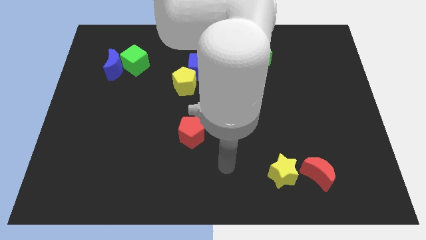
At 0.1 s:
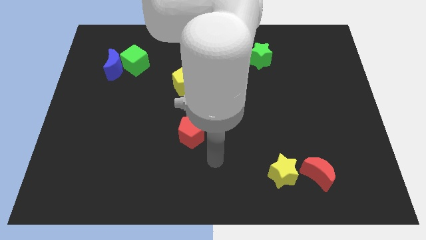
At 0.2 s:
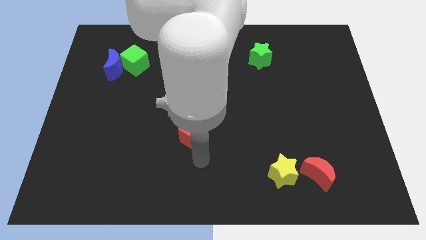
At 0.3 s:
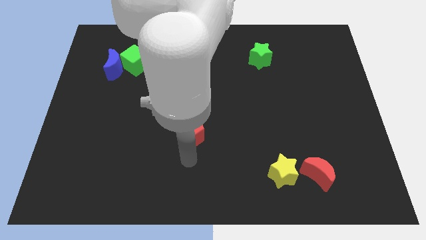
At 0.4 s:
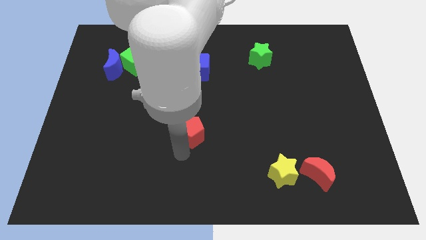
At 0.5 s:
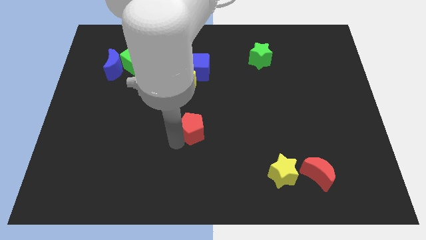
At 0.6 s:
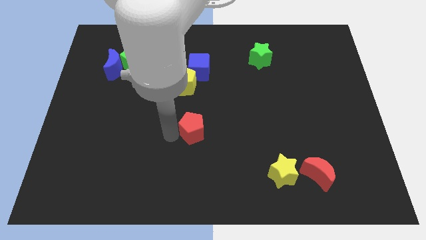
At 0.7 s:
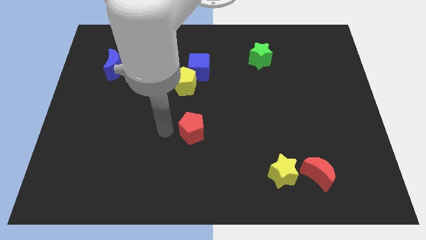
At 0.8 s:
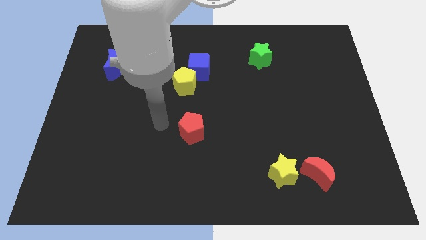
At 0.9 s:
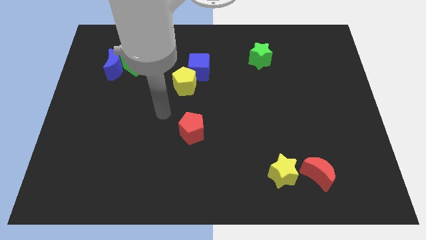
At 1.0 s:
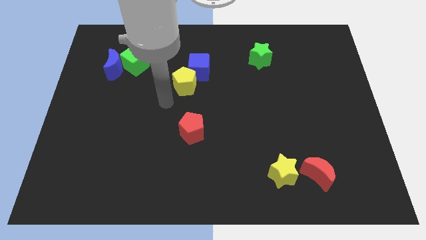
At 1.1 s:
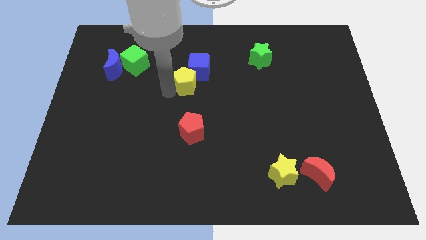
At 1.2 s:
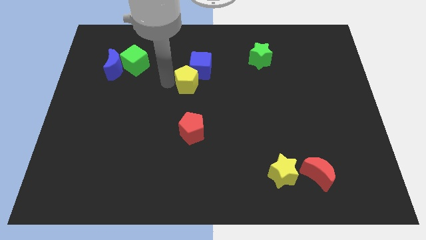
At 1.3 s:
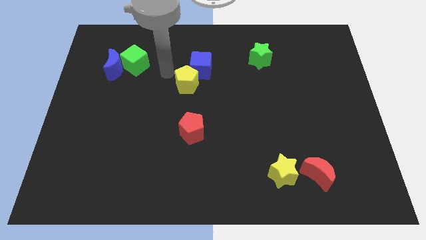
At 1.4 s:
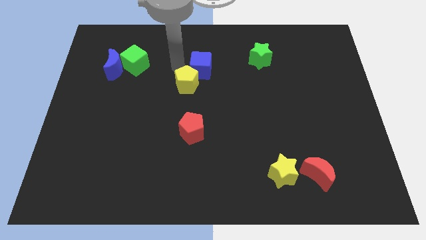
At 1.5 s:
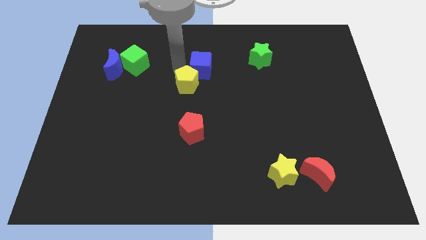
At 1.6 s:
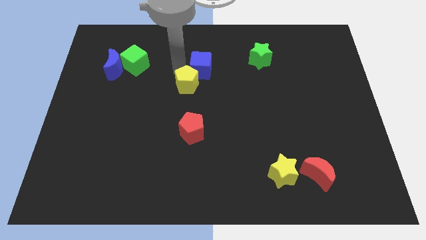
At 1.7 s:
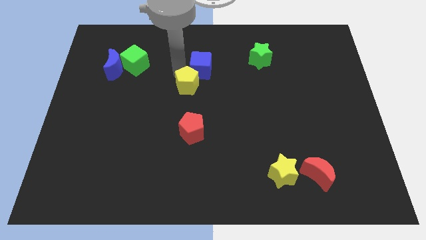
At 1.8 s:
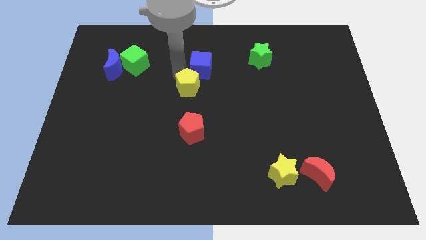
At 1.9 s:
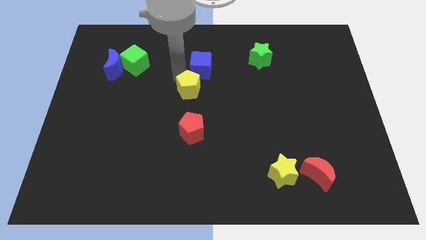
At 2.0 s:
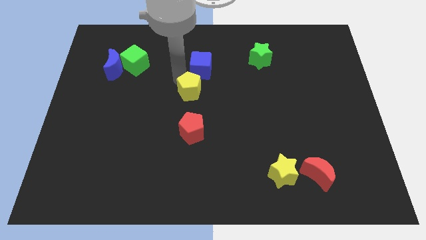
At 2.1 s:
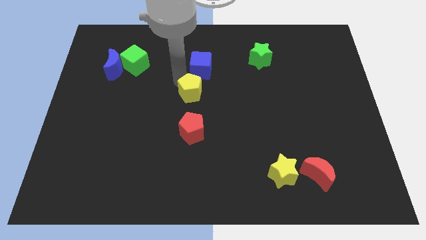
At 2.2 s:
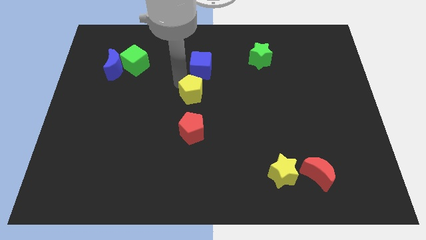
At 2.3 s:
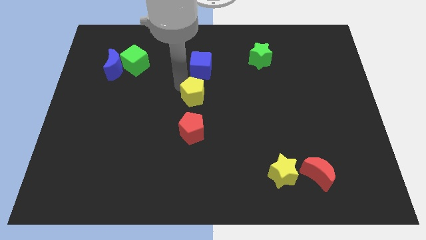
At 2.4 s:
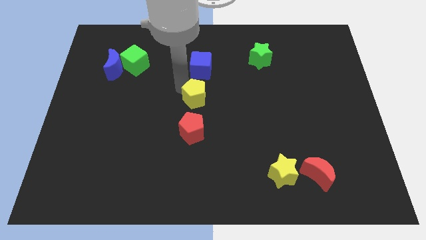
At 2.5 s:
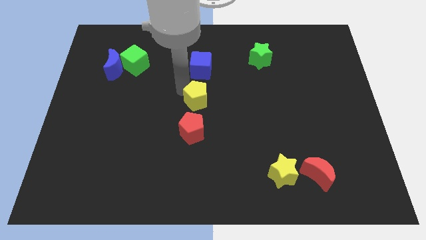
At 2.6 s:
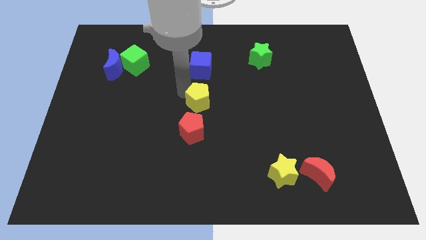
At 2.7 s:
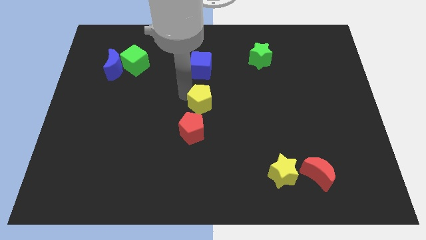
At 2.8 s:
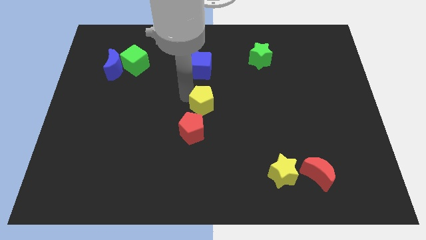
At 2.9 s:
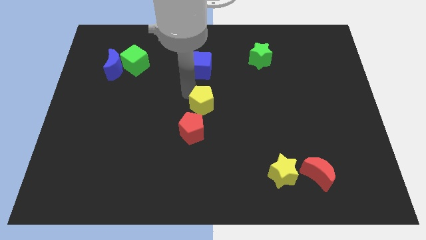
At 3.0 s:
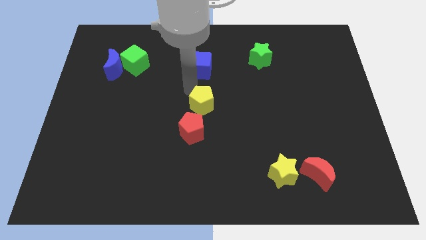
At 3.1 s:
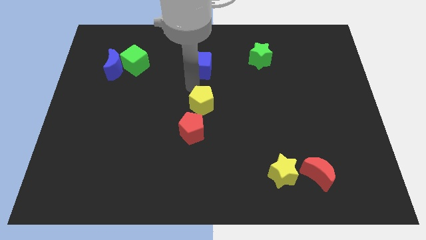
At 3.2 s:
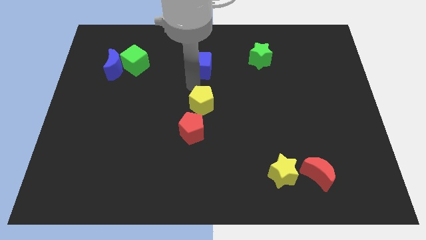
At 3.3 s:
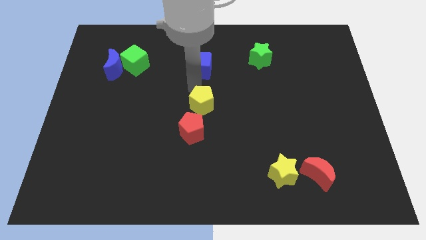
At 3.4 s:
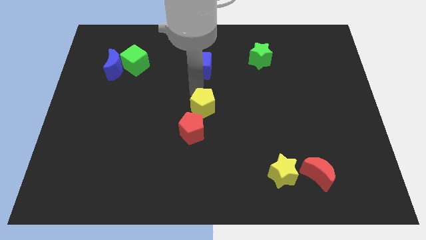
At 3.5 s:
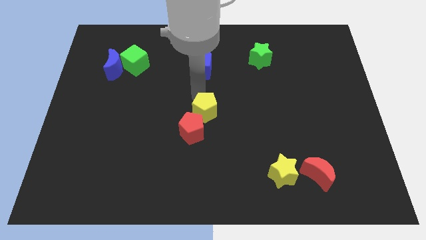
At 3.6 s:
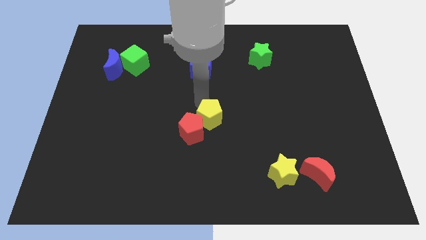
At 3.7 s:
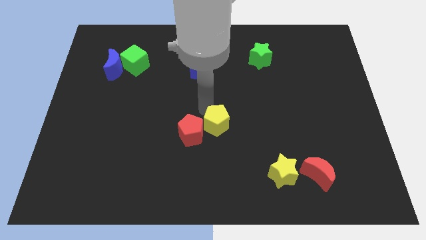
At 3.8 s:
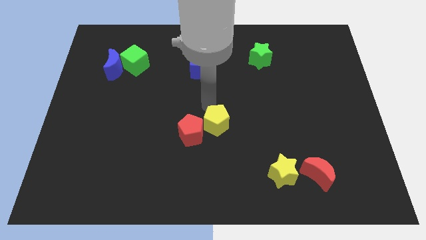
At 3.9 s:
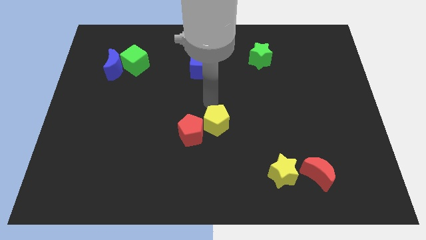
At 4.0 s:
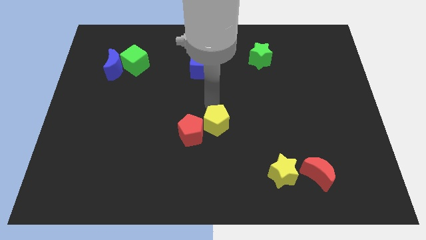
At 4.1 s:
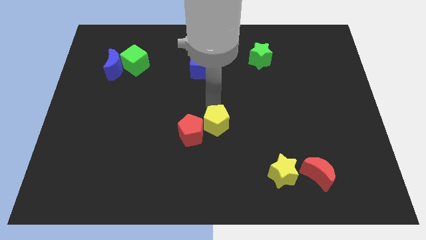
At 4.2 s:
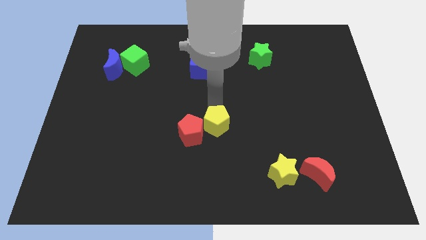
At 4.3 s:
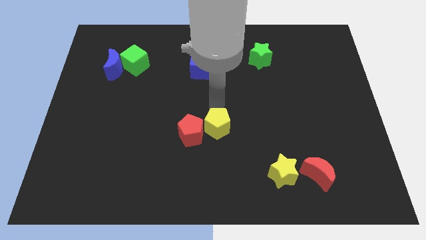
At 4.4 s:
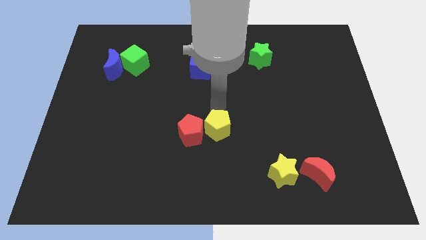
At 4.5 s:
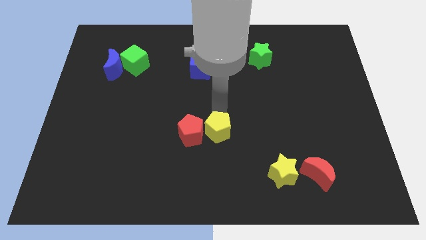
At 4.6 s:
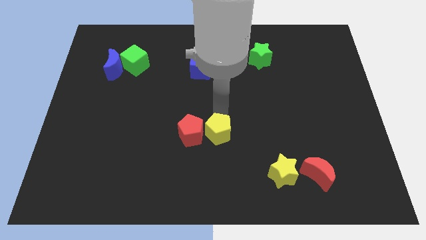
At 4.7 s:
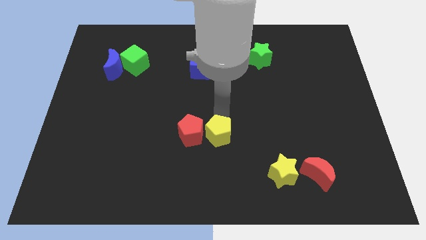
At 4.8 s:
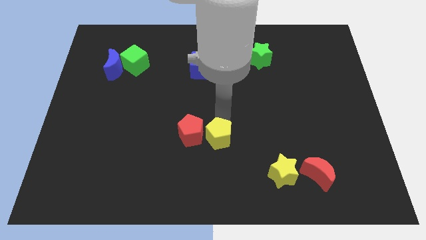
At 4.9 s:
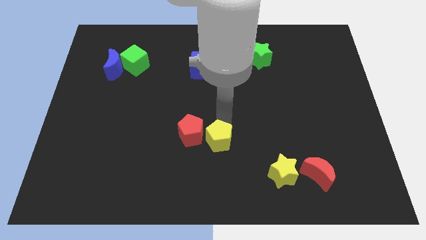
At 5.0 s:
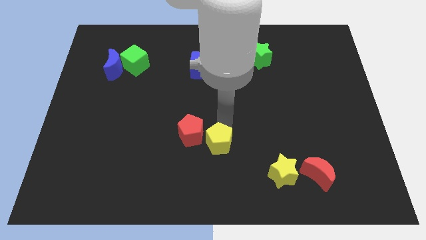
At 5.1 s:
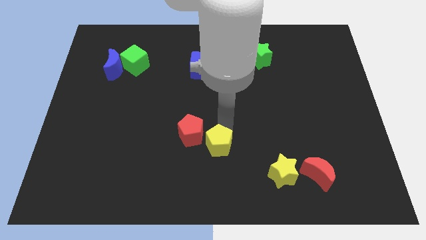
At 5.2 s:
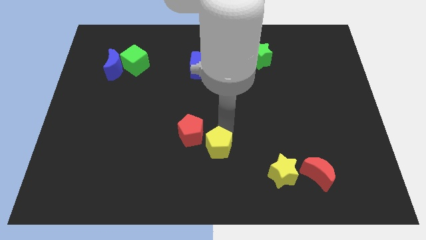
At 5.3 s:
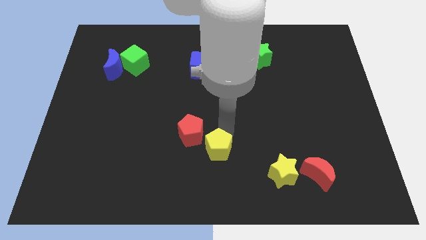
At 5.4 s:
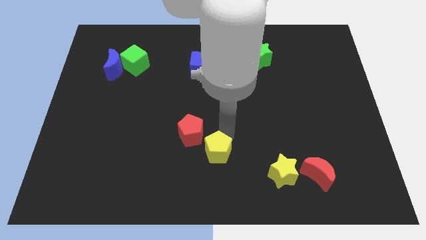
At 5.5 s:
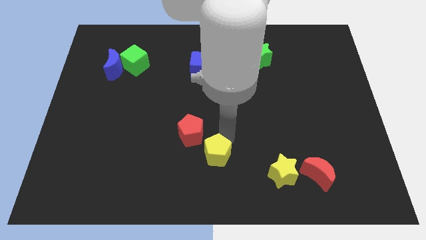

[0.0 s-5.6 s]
move the yellow pentagon to the bottom

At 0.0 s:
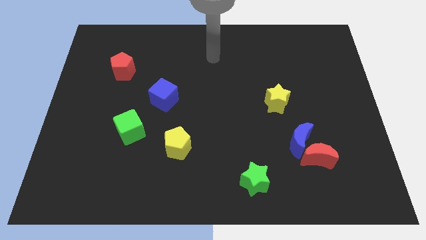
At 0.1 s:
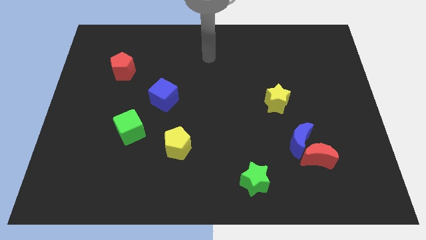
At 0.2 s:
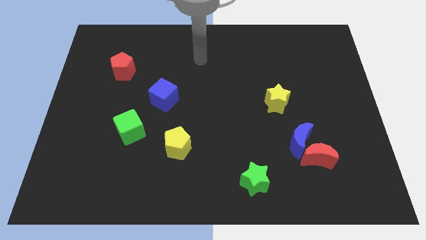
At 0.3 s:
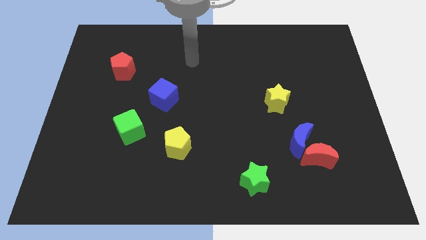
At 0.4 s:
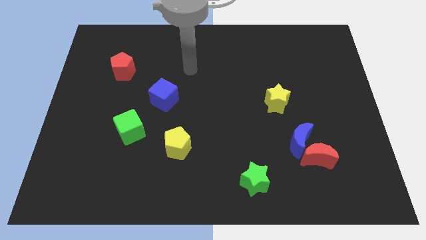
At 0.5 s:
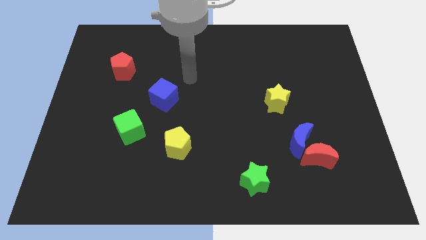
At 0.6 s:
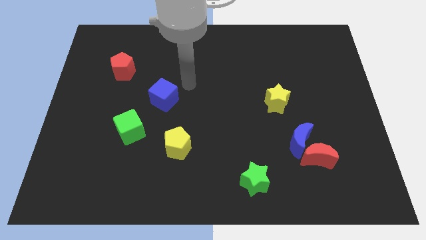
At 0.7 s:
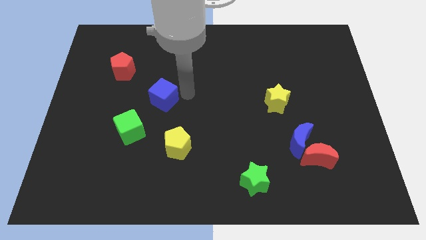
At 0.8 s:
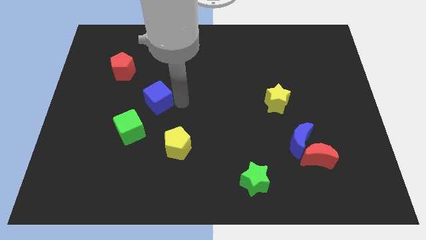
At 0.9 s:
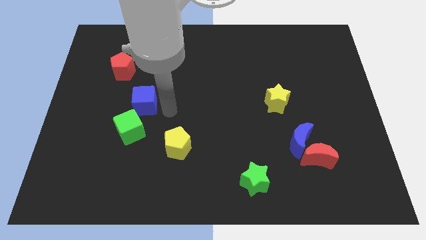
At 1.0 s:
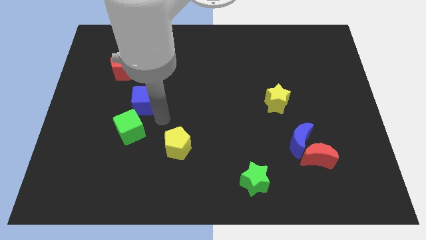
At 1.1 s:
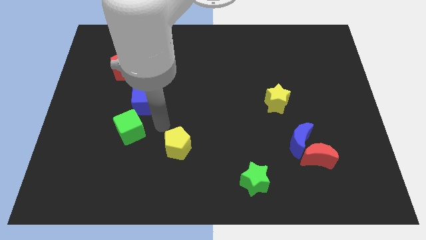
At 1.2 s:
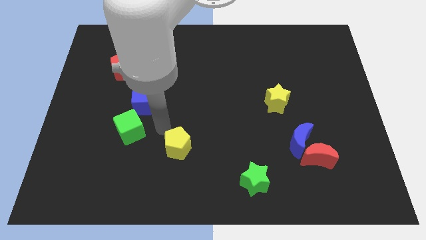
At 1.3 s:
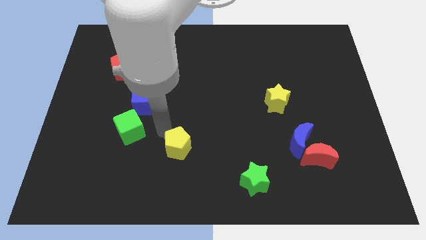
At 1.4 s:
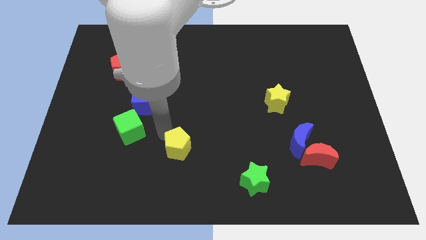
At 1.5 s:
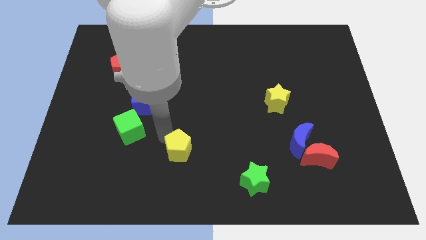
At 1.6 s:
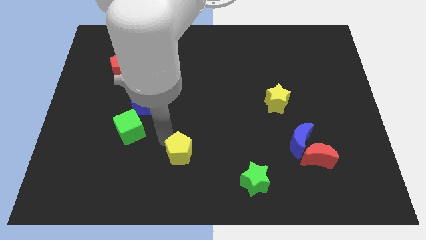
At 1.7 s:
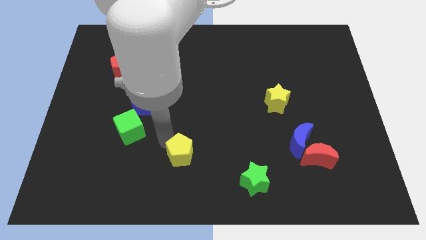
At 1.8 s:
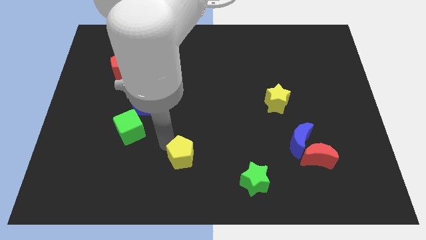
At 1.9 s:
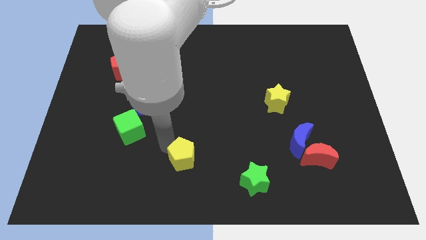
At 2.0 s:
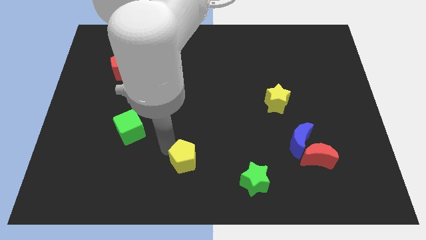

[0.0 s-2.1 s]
put the yellow pentagon to the bottom
